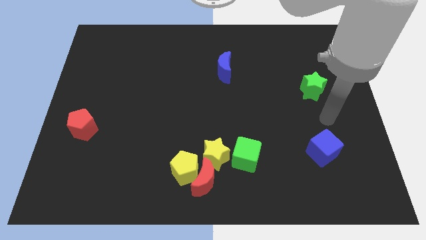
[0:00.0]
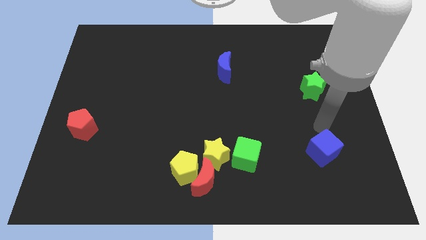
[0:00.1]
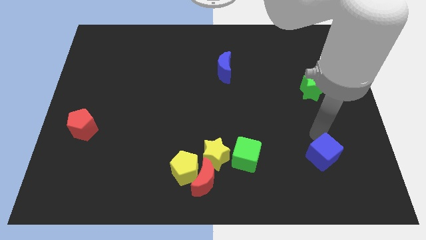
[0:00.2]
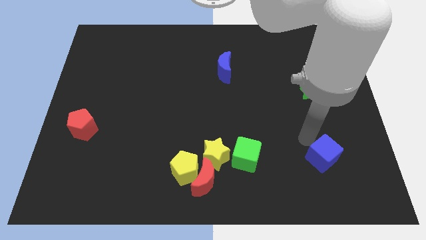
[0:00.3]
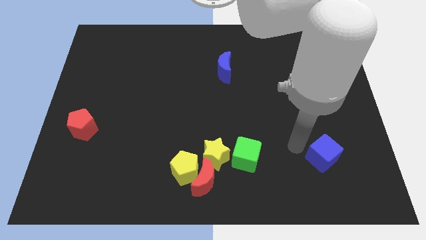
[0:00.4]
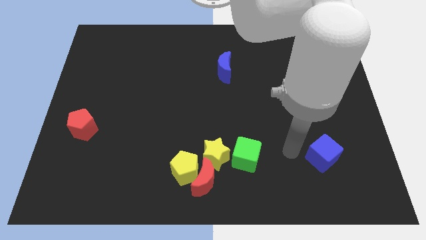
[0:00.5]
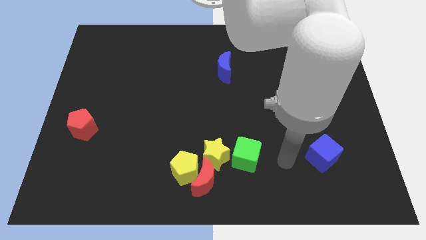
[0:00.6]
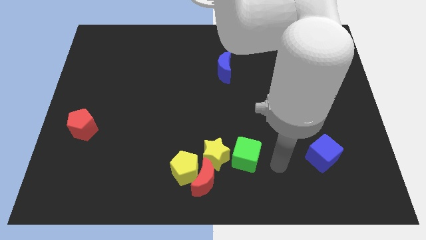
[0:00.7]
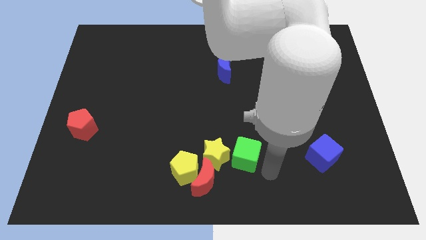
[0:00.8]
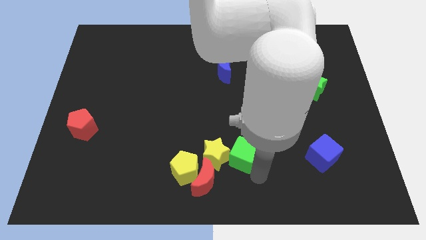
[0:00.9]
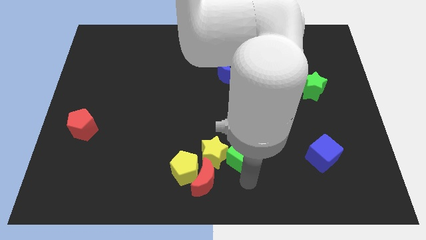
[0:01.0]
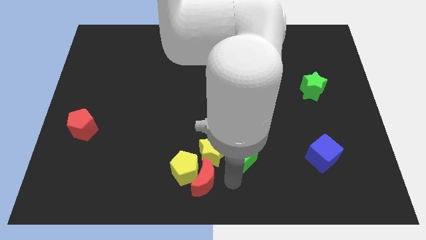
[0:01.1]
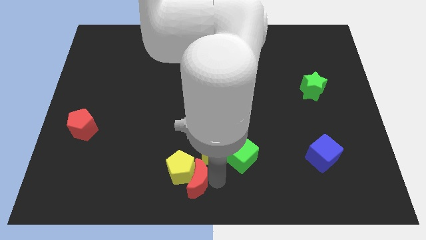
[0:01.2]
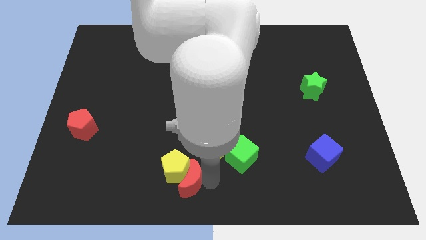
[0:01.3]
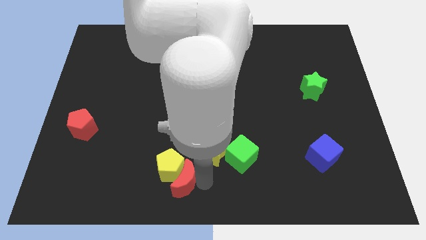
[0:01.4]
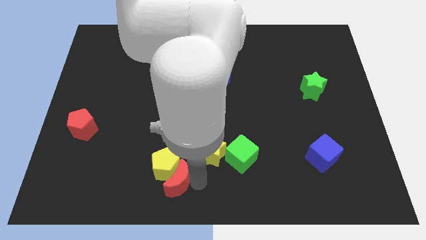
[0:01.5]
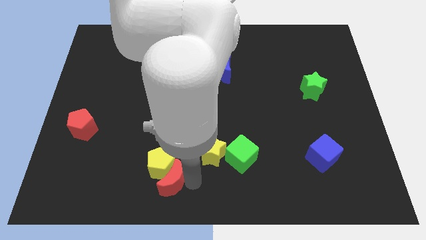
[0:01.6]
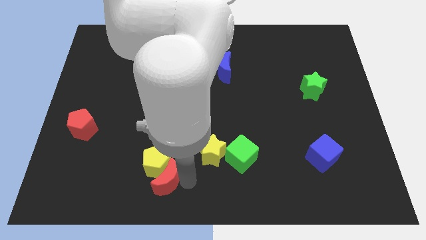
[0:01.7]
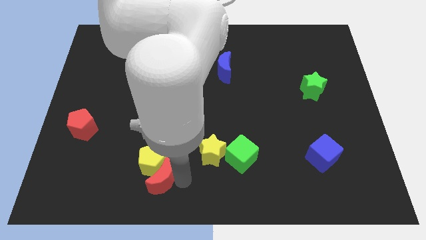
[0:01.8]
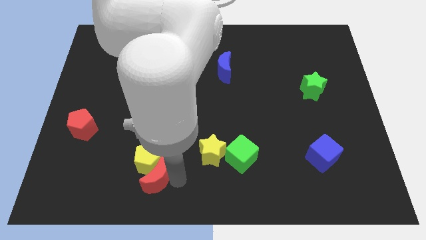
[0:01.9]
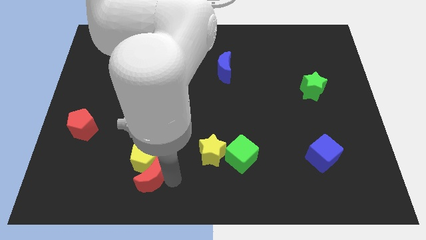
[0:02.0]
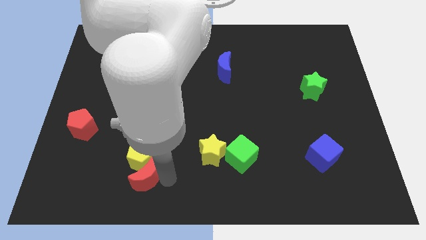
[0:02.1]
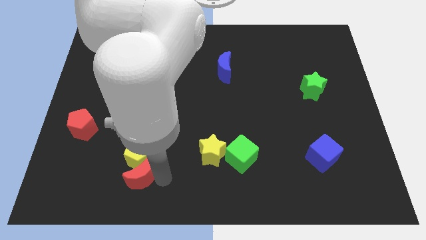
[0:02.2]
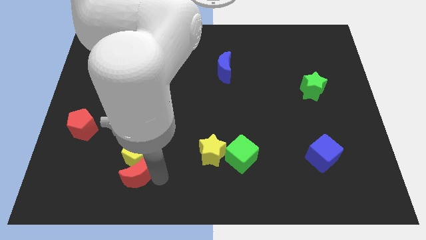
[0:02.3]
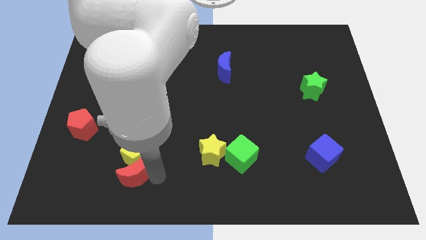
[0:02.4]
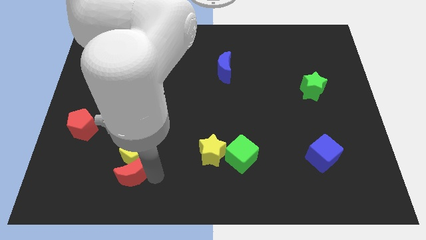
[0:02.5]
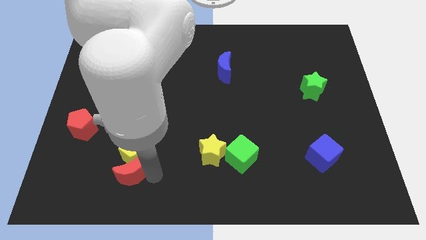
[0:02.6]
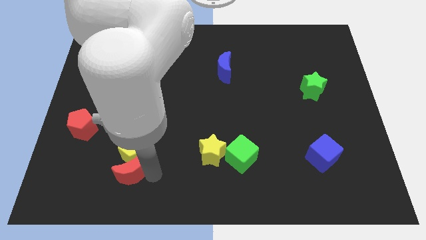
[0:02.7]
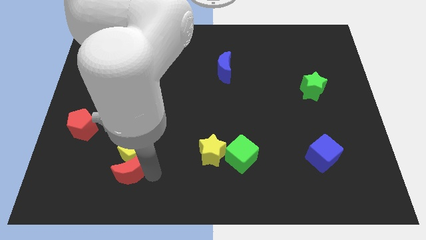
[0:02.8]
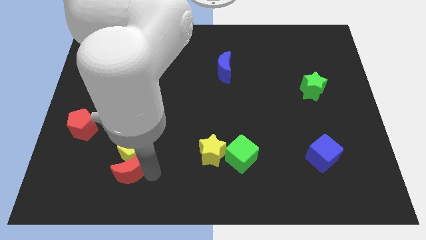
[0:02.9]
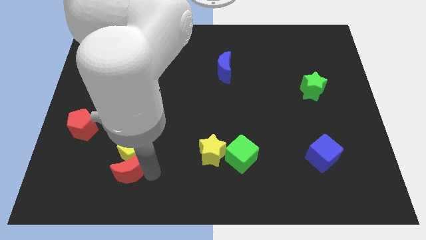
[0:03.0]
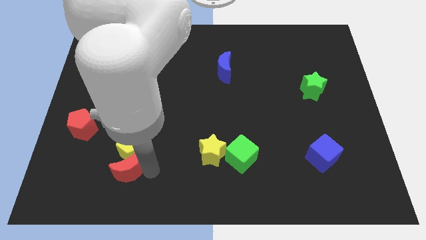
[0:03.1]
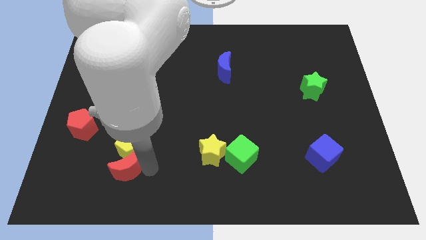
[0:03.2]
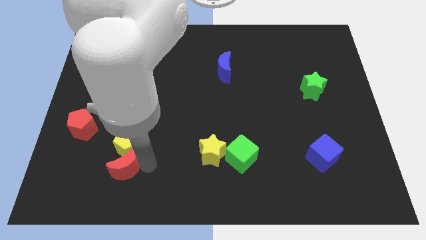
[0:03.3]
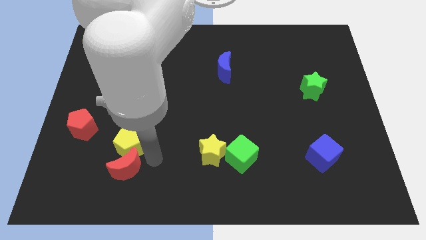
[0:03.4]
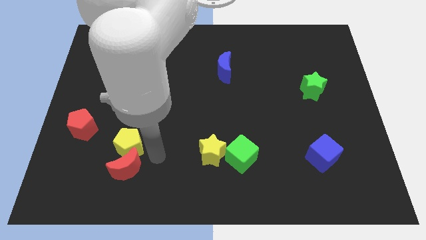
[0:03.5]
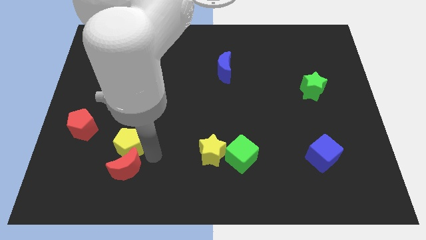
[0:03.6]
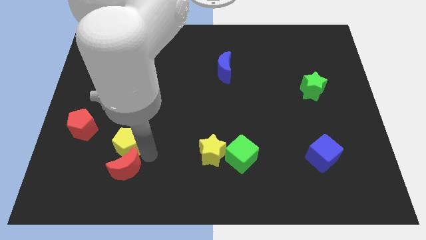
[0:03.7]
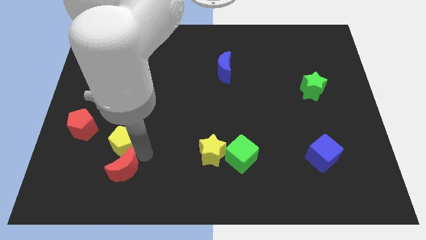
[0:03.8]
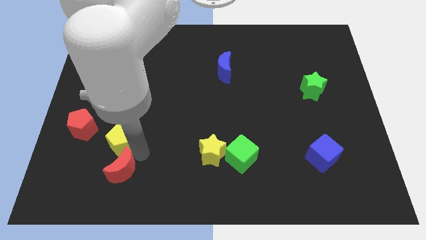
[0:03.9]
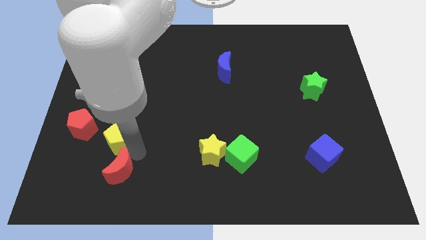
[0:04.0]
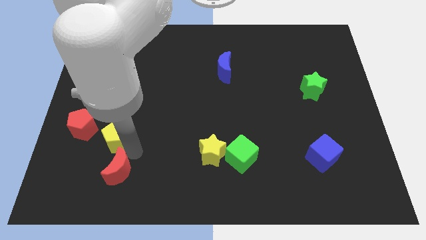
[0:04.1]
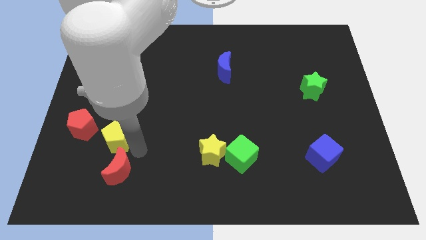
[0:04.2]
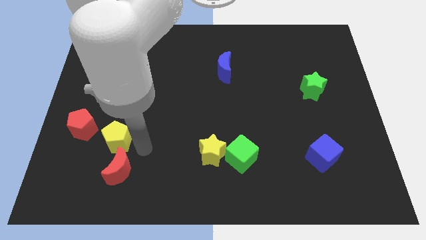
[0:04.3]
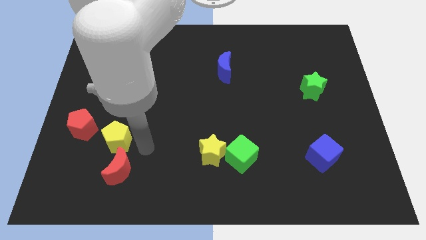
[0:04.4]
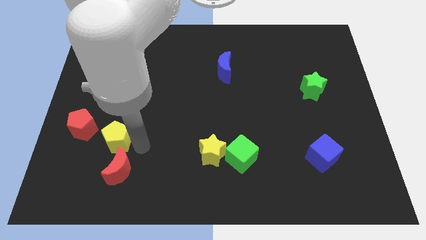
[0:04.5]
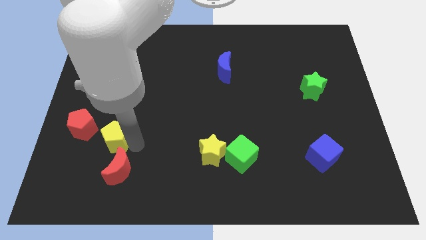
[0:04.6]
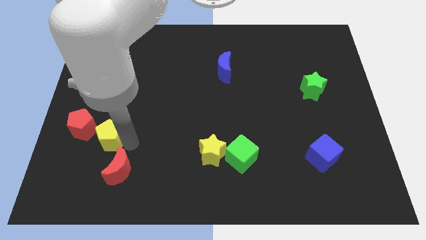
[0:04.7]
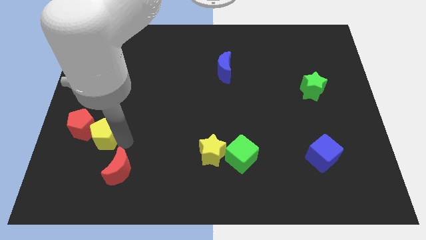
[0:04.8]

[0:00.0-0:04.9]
slide the yellow pentagon towards the red pentagon

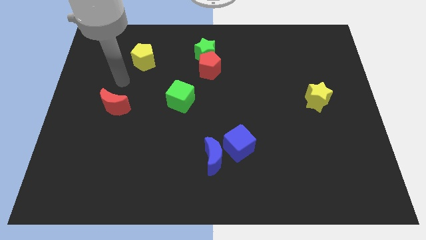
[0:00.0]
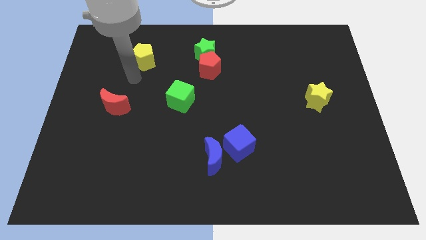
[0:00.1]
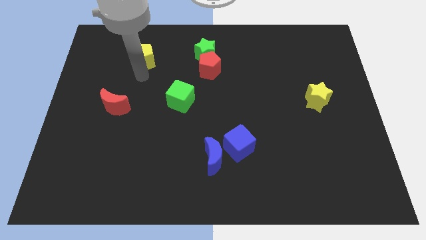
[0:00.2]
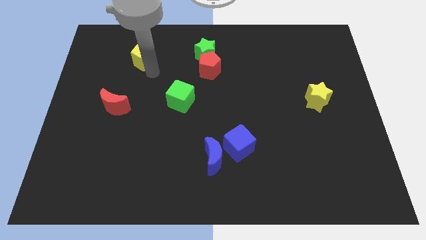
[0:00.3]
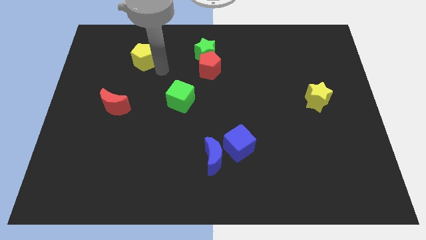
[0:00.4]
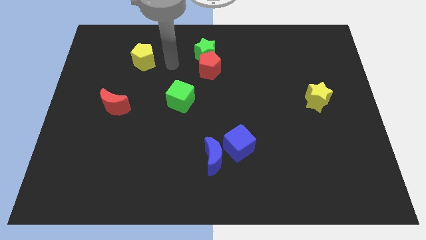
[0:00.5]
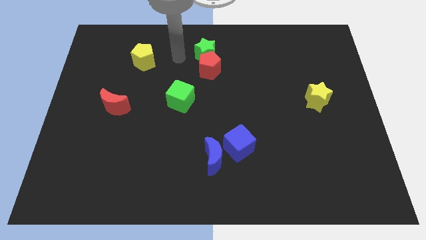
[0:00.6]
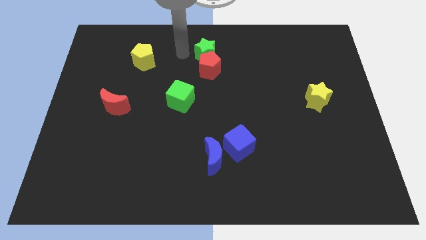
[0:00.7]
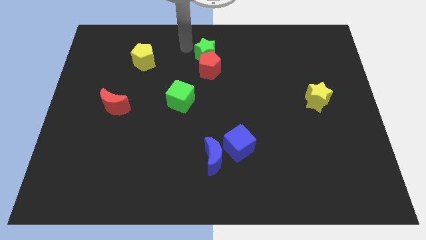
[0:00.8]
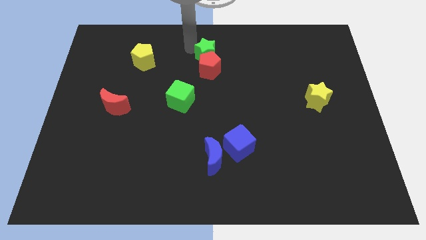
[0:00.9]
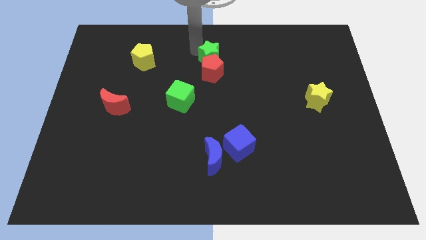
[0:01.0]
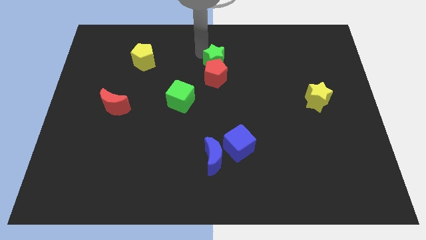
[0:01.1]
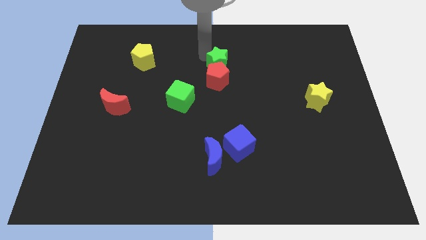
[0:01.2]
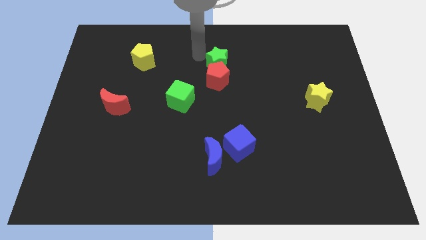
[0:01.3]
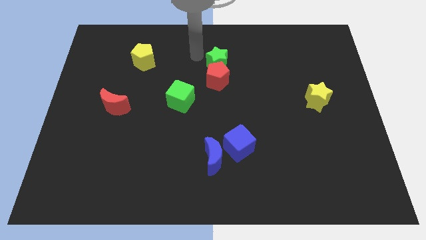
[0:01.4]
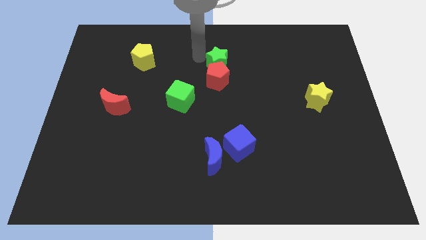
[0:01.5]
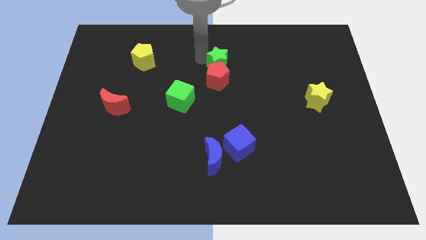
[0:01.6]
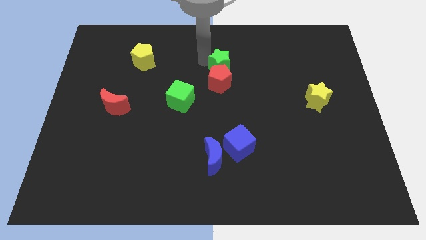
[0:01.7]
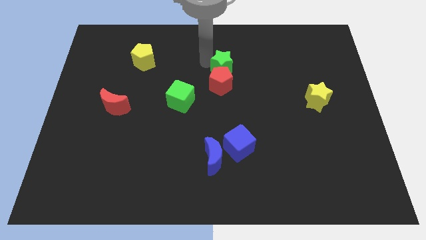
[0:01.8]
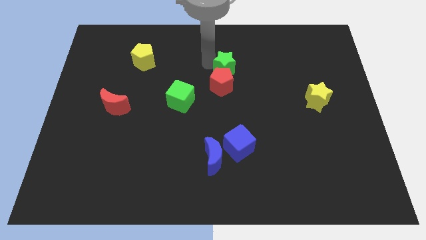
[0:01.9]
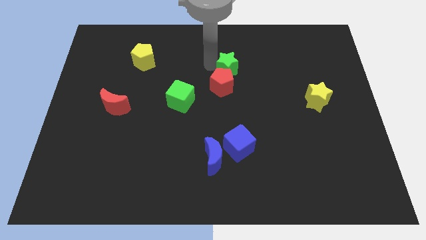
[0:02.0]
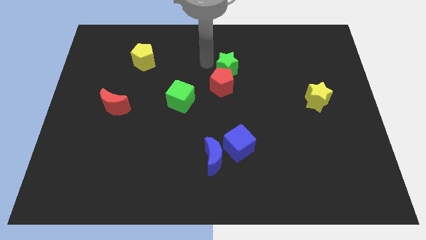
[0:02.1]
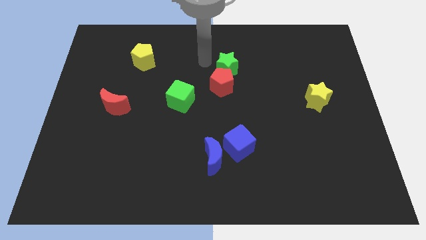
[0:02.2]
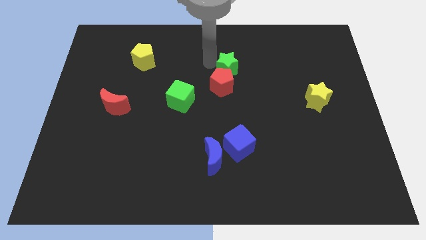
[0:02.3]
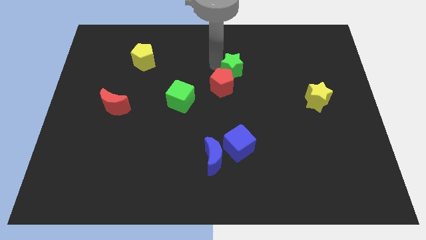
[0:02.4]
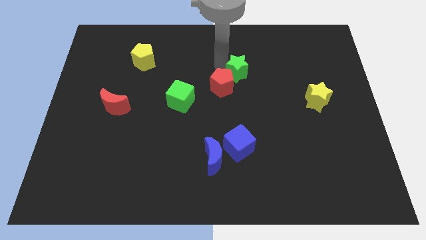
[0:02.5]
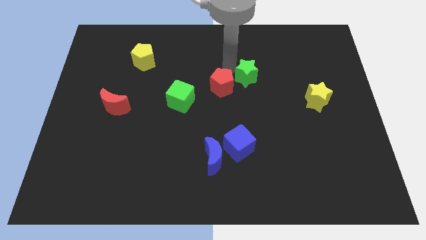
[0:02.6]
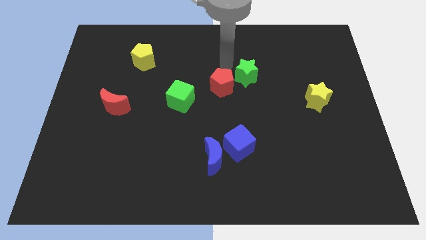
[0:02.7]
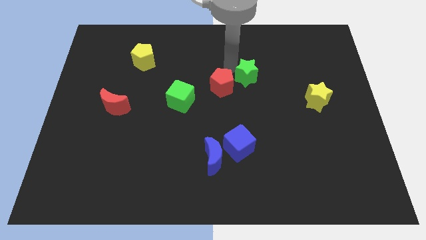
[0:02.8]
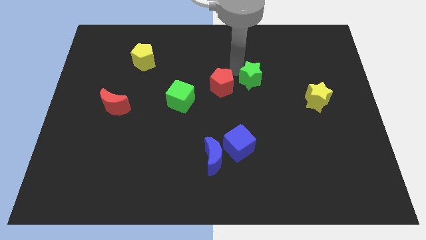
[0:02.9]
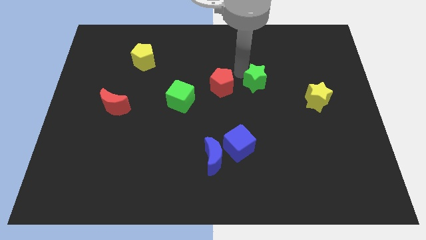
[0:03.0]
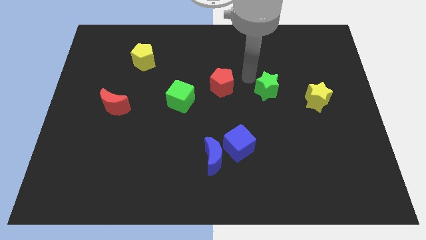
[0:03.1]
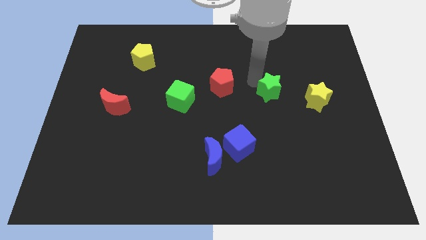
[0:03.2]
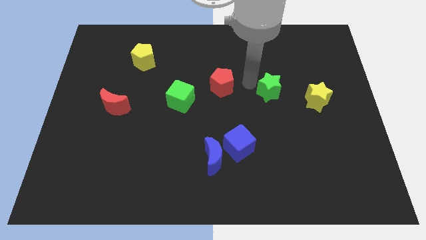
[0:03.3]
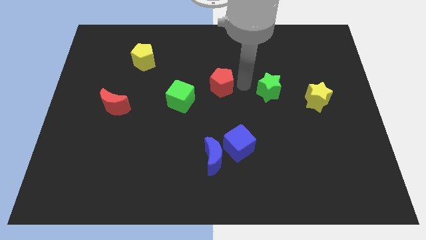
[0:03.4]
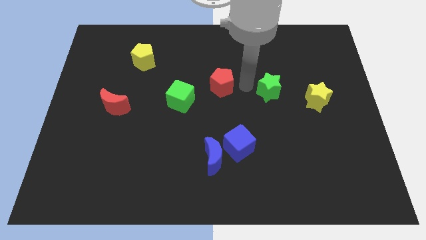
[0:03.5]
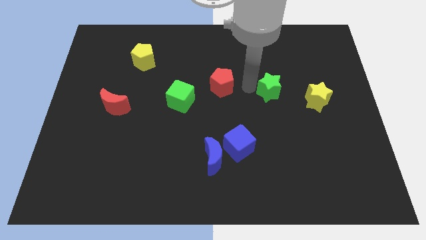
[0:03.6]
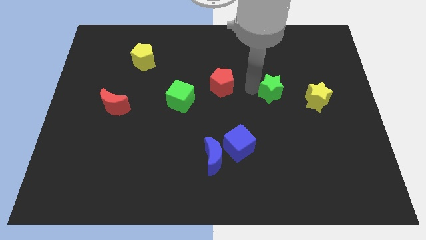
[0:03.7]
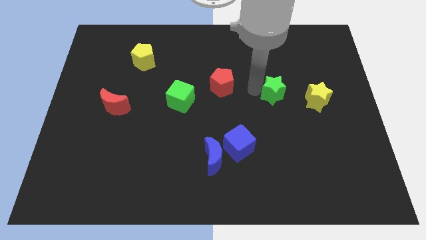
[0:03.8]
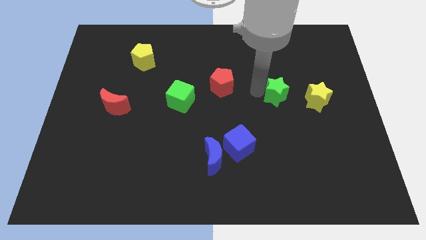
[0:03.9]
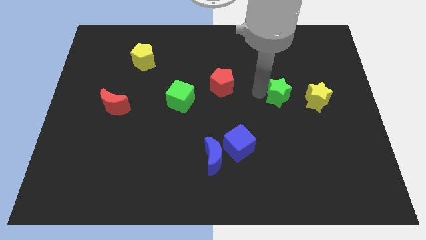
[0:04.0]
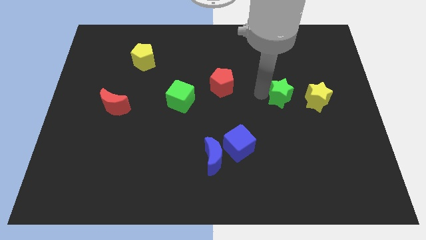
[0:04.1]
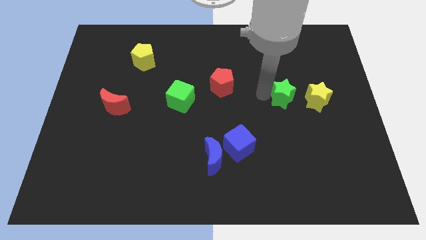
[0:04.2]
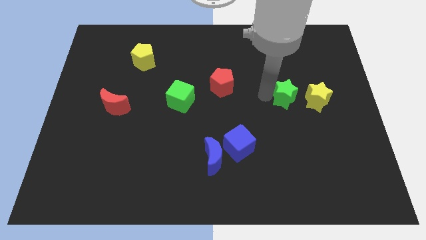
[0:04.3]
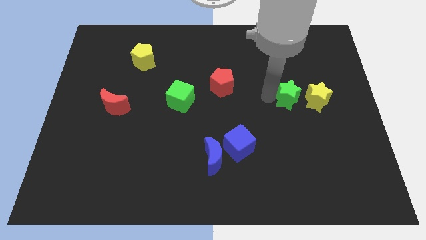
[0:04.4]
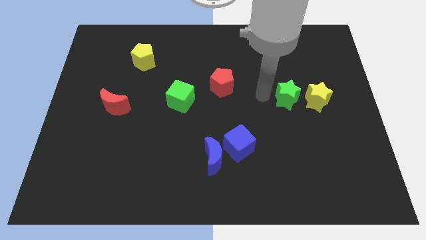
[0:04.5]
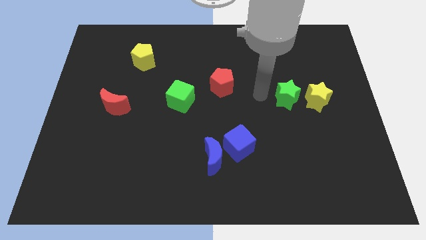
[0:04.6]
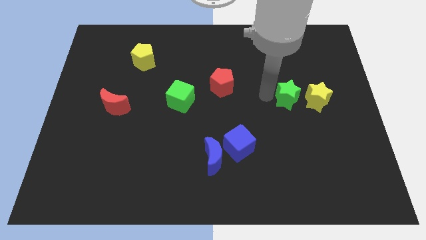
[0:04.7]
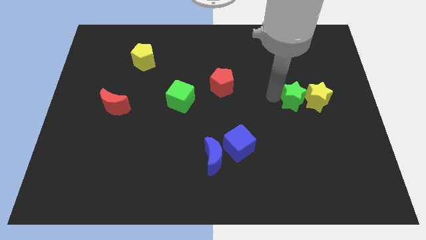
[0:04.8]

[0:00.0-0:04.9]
move the green star towards the yellow star
